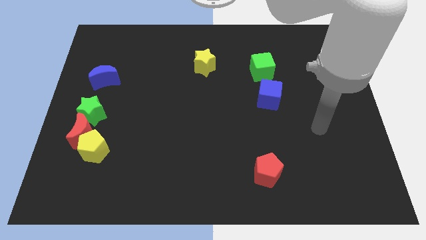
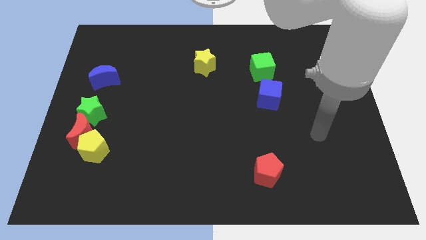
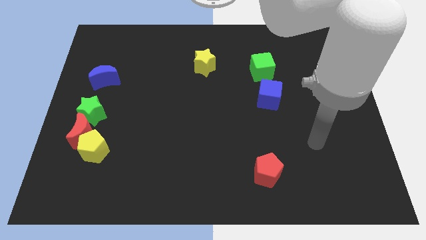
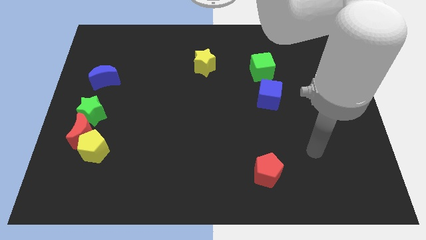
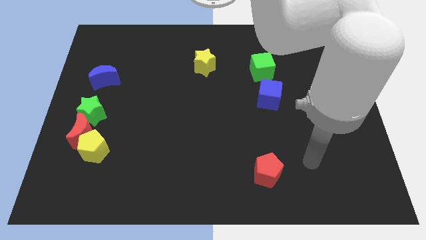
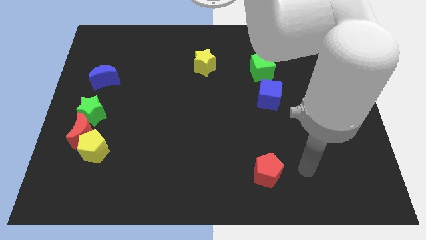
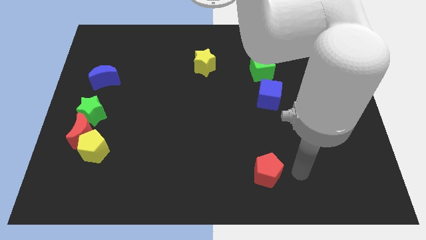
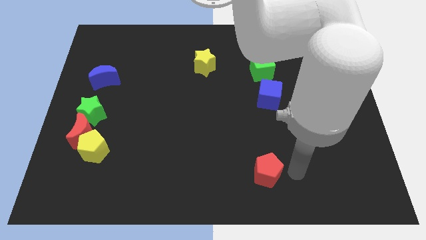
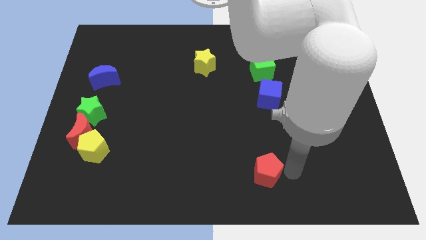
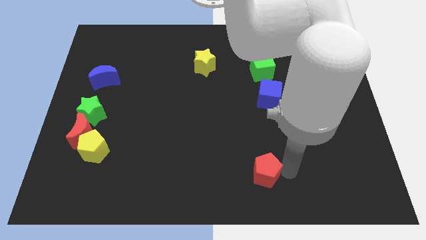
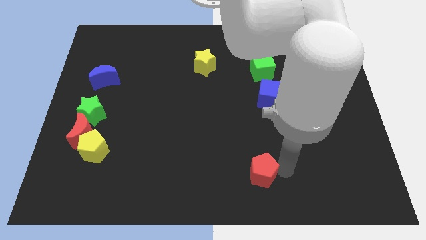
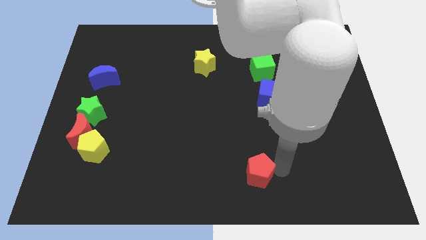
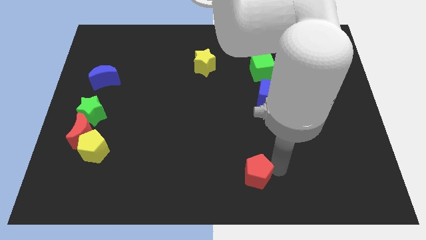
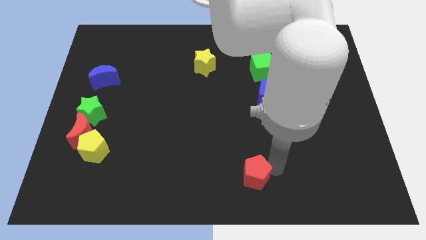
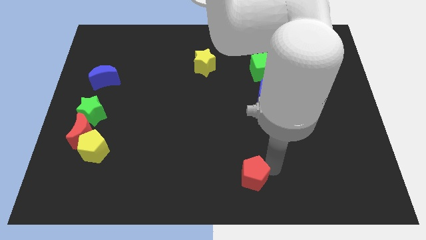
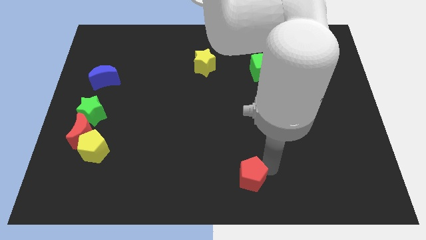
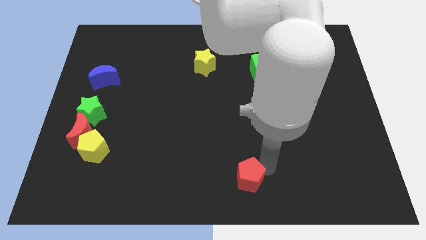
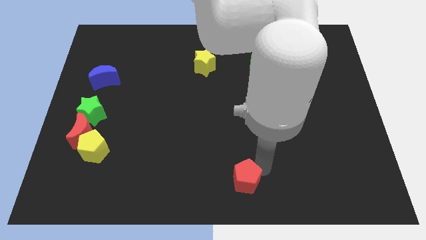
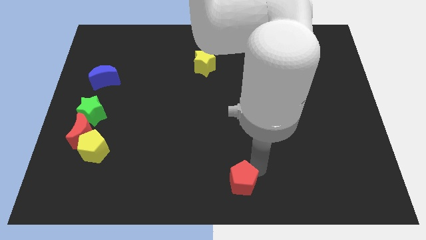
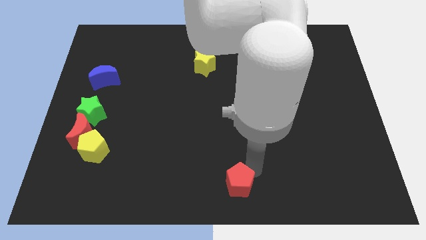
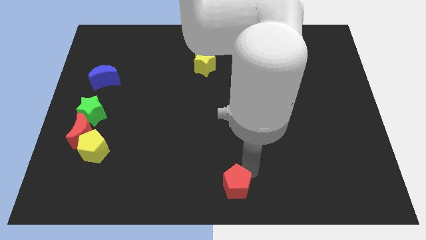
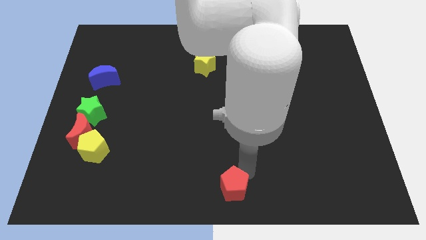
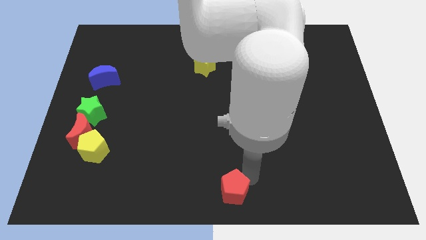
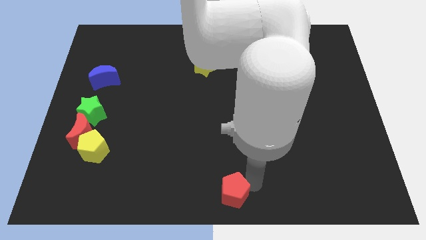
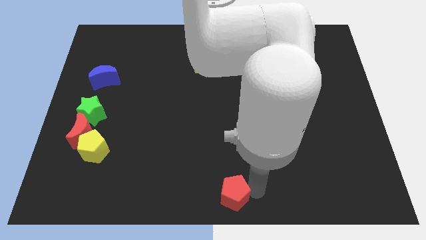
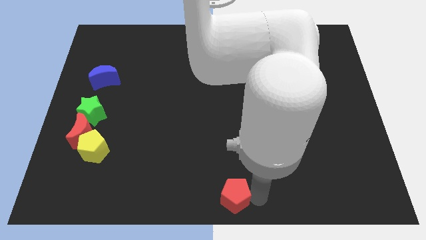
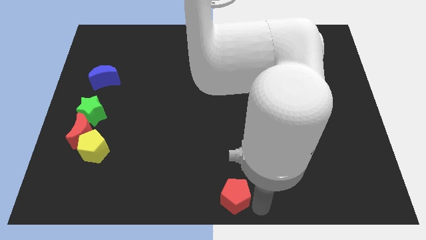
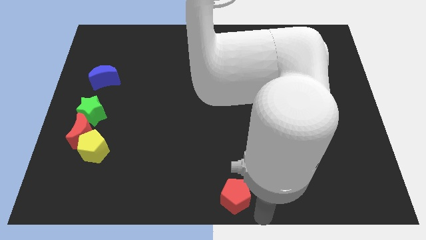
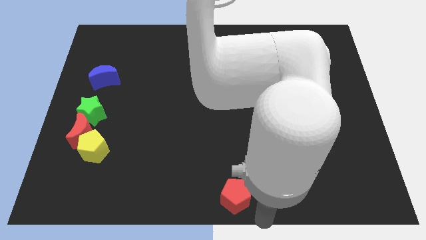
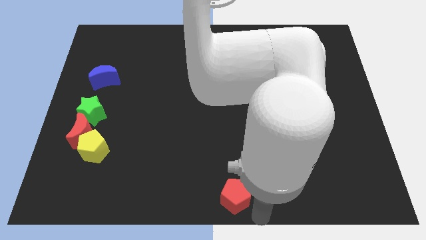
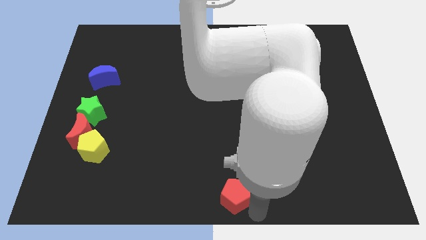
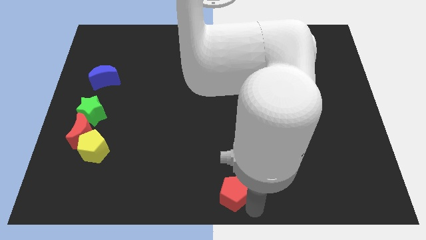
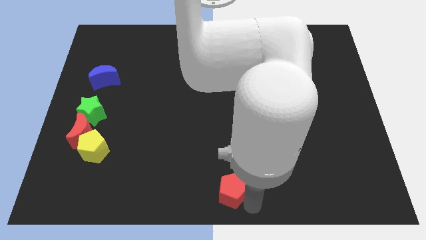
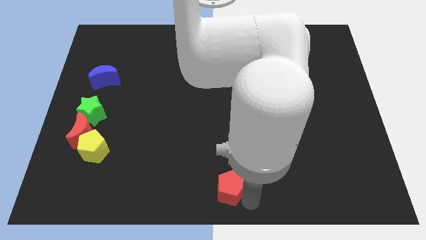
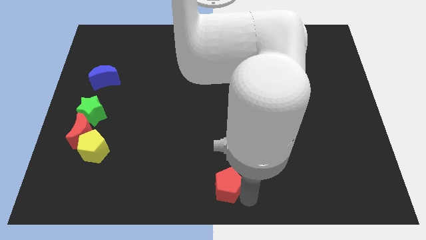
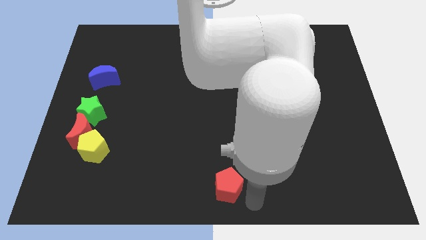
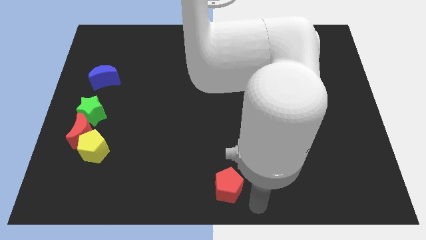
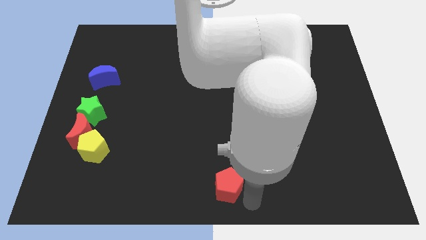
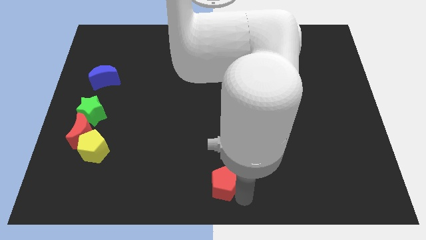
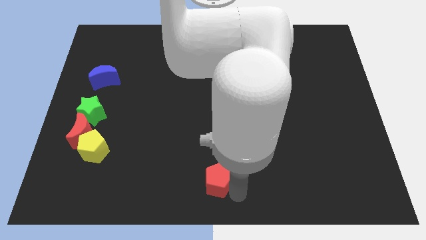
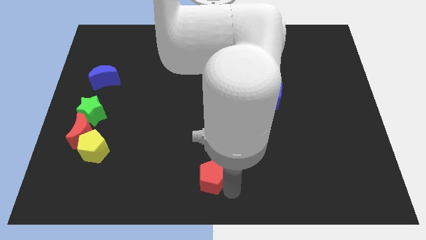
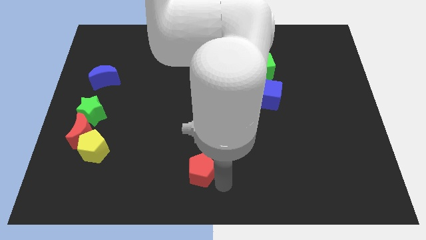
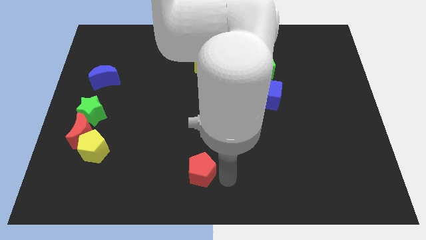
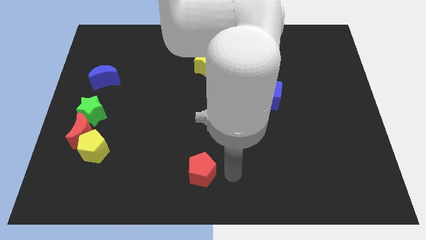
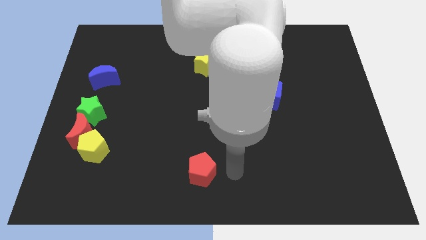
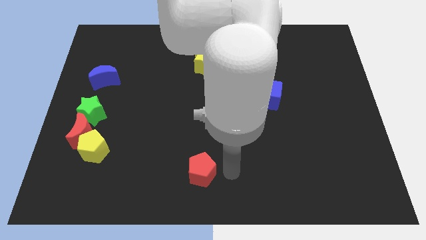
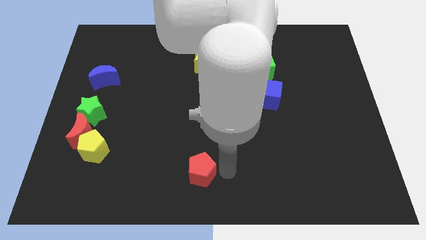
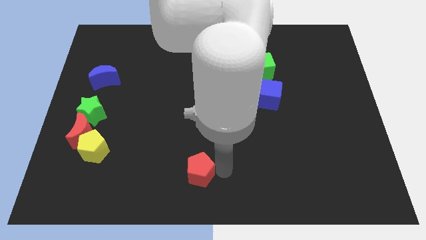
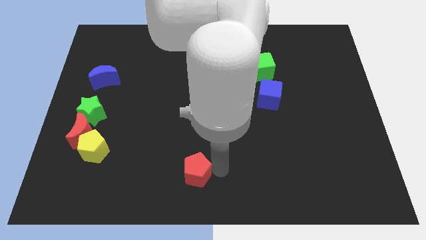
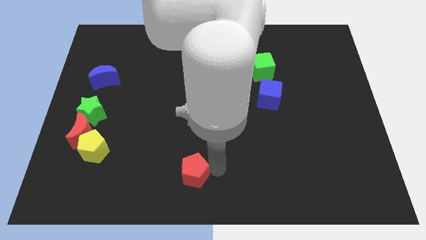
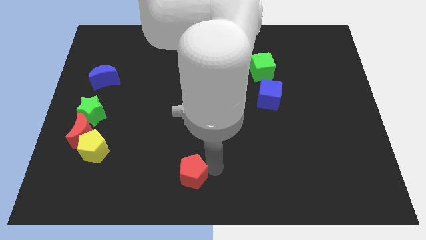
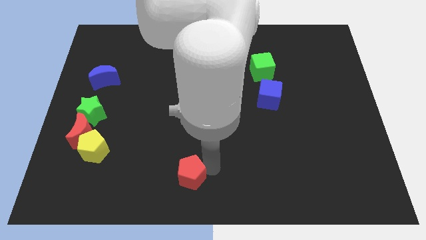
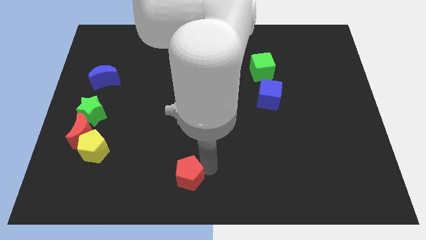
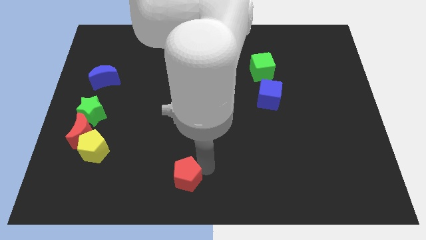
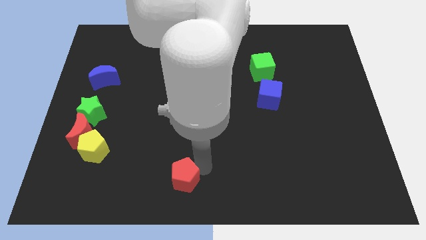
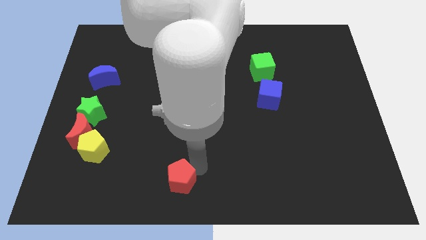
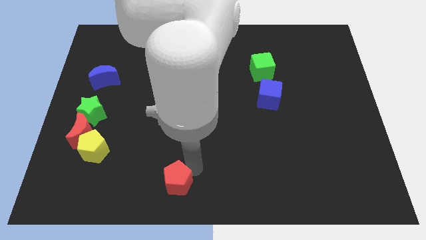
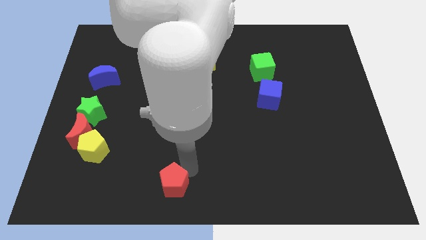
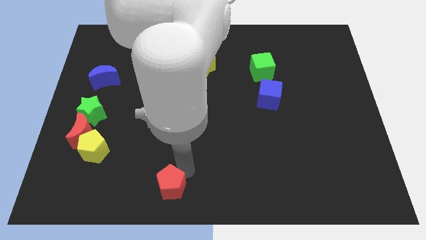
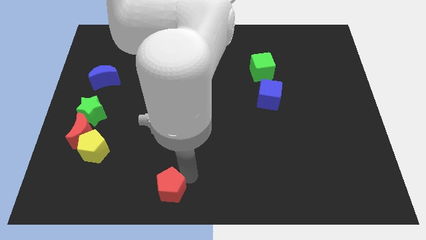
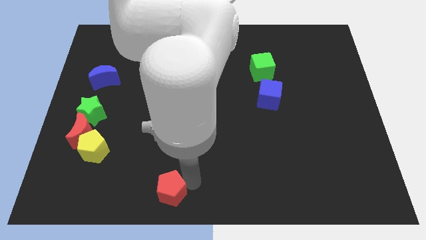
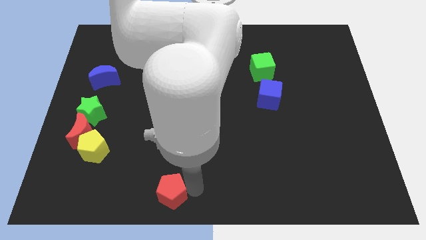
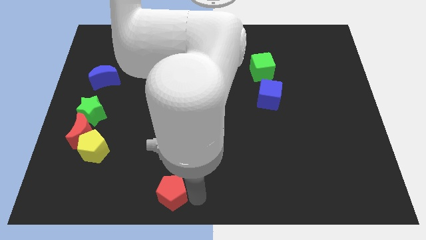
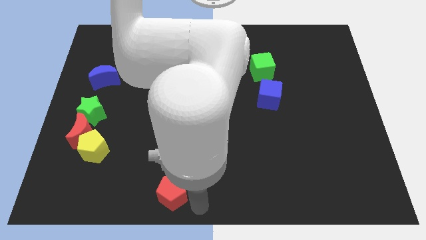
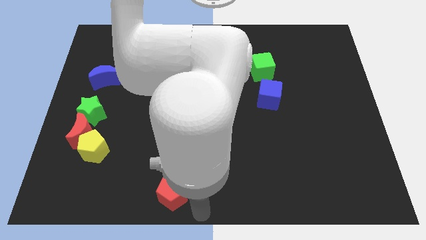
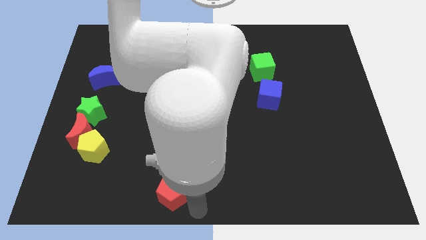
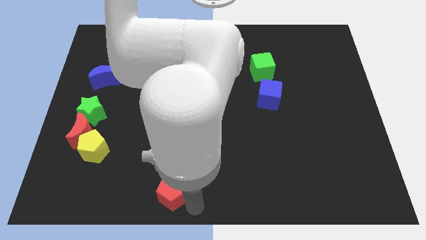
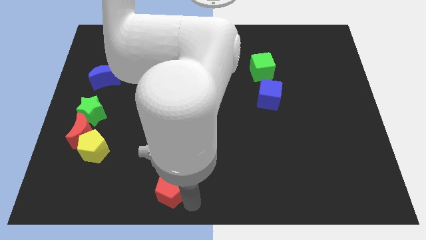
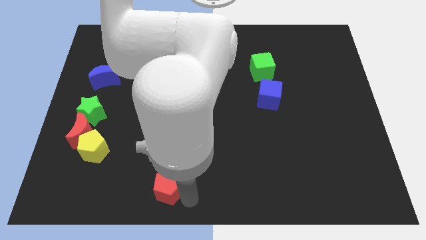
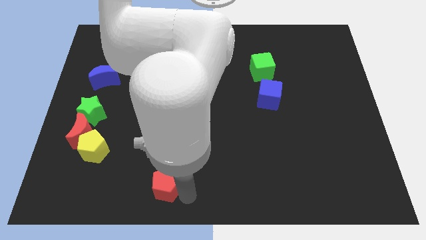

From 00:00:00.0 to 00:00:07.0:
move the red pentagon to the left

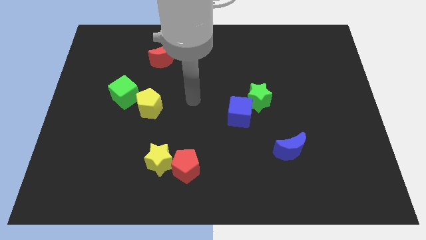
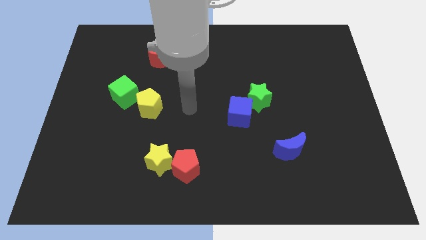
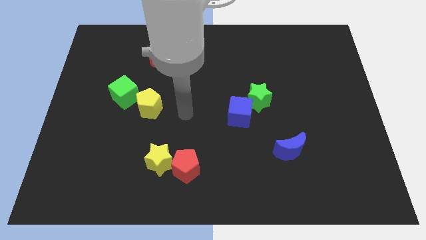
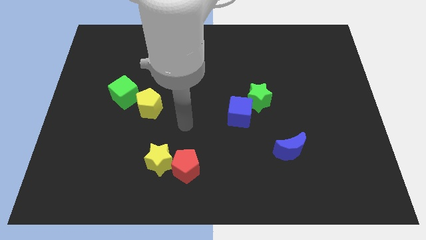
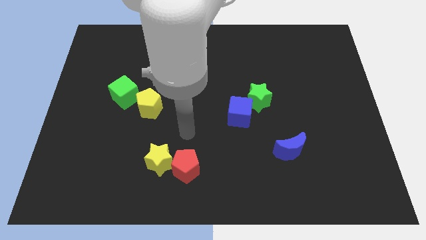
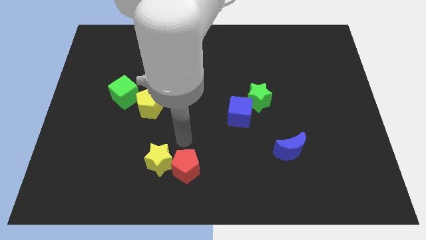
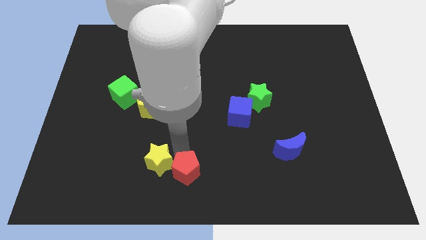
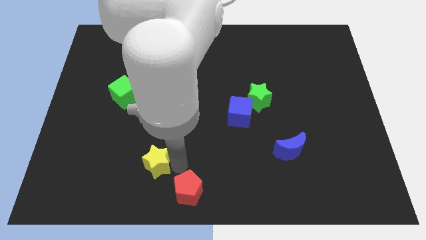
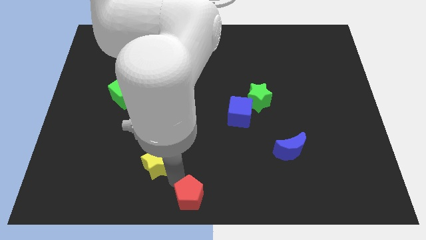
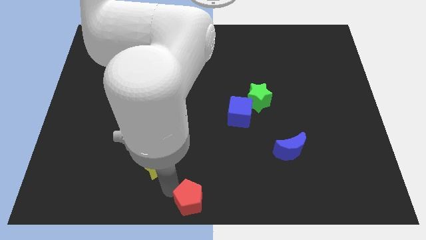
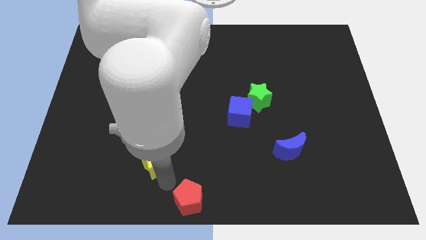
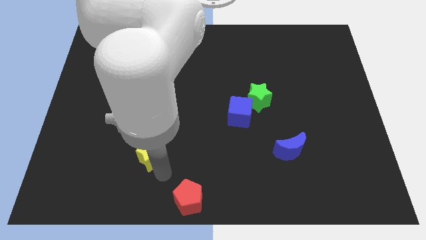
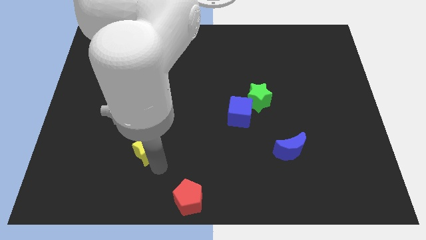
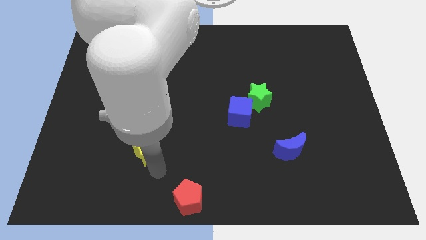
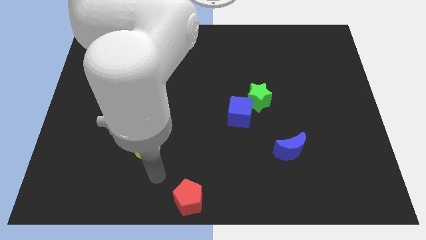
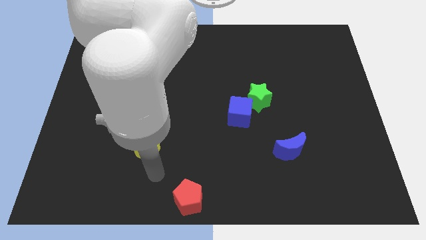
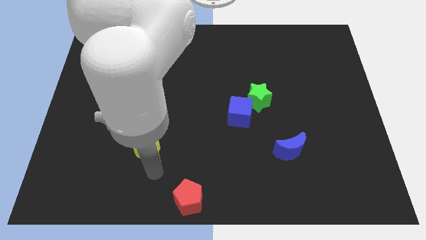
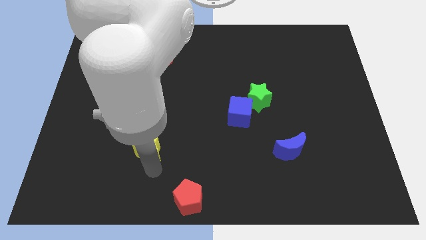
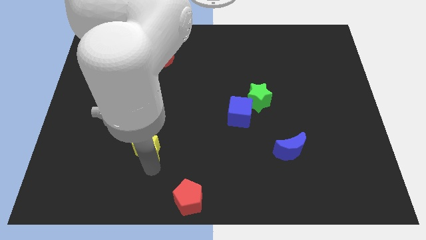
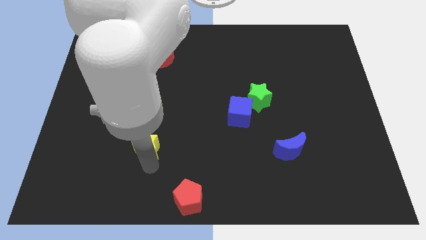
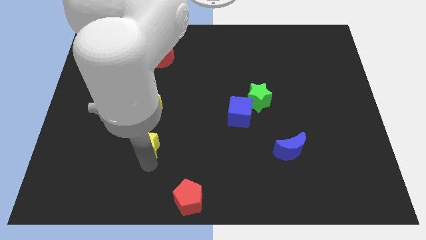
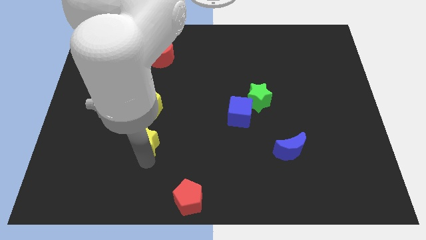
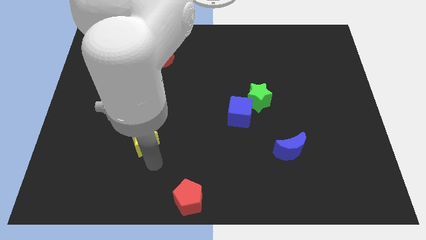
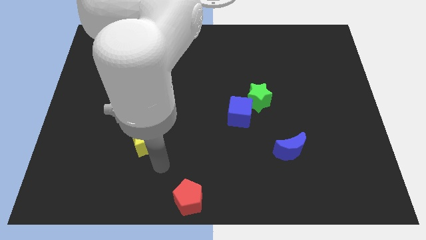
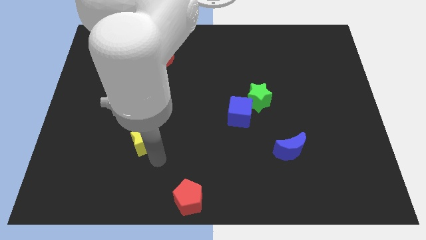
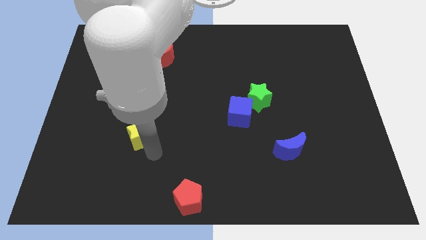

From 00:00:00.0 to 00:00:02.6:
slide the yellow star somewhat up and left
